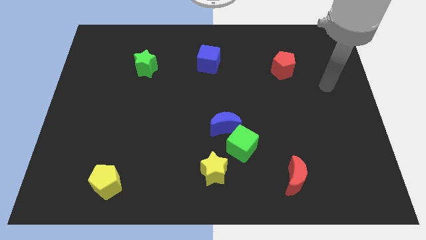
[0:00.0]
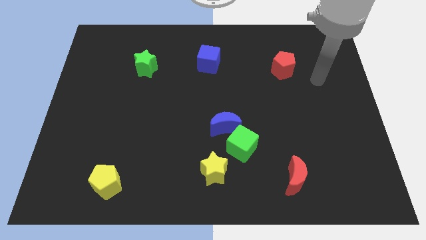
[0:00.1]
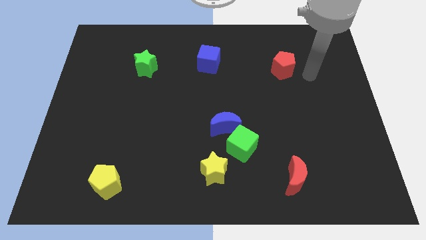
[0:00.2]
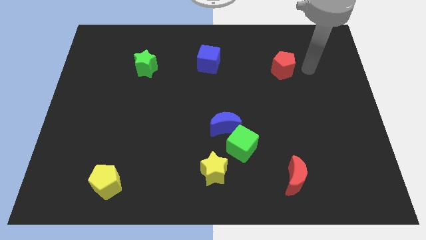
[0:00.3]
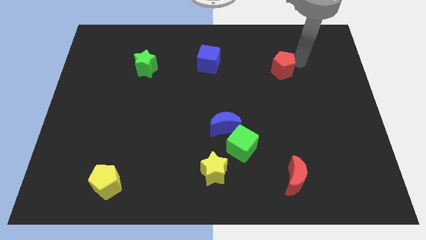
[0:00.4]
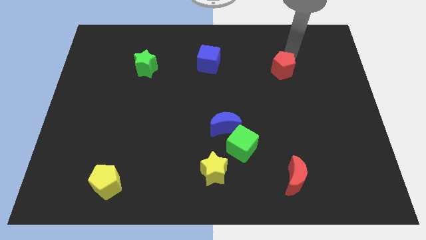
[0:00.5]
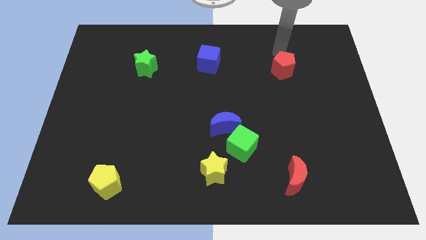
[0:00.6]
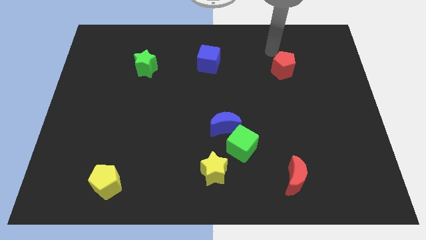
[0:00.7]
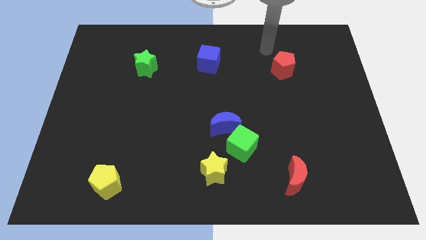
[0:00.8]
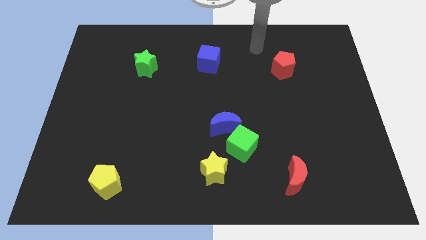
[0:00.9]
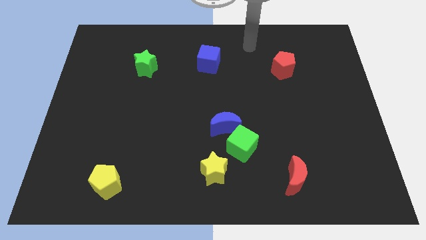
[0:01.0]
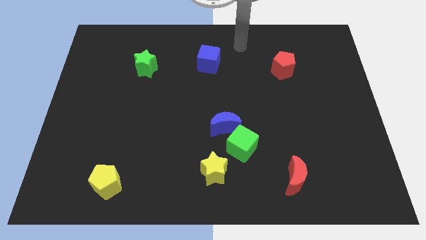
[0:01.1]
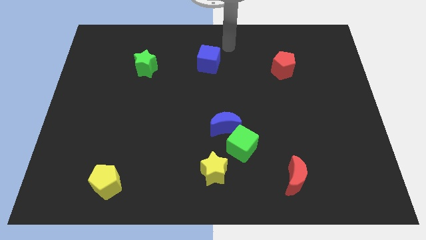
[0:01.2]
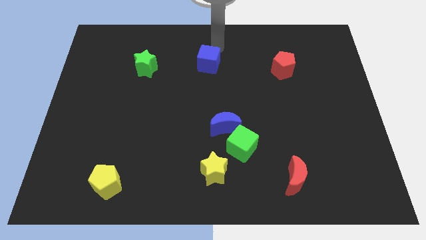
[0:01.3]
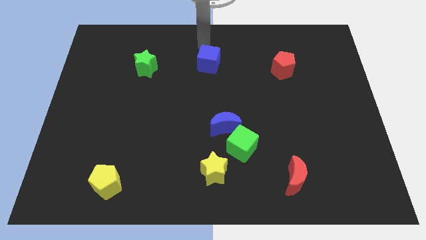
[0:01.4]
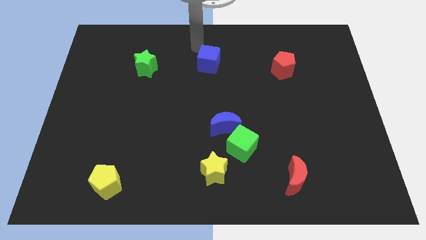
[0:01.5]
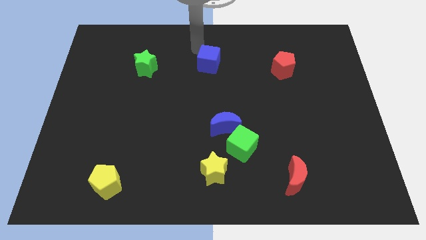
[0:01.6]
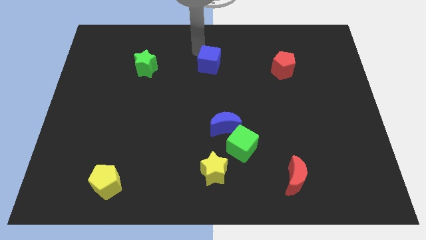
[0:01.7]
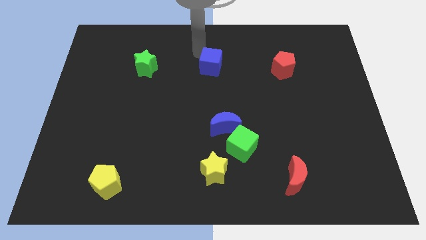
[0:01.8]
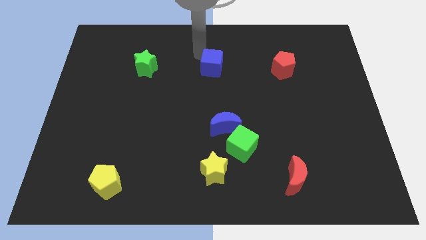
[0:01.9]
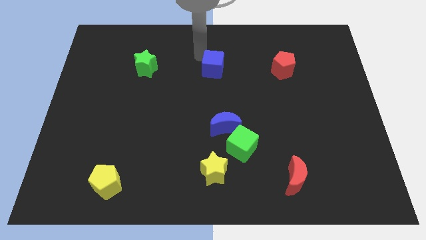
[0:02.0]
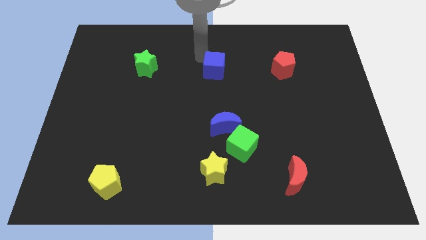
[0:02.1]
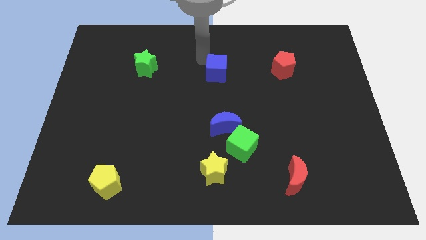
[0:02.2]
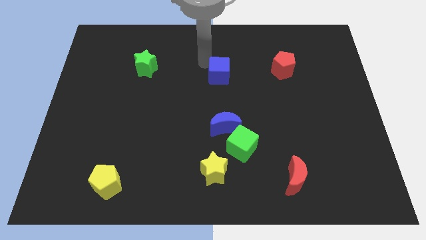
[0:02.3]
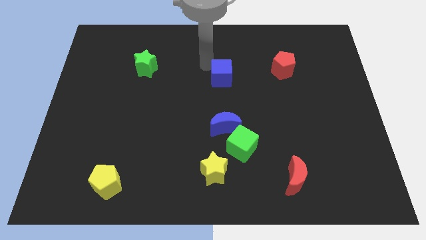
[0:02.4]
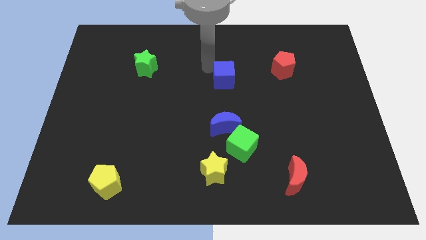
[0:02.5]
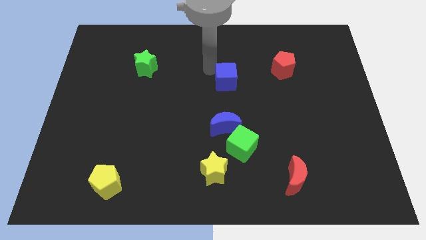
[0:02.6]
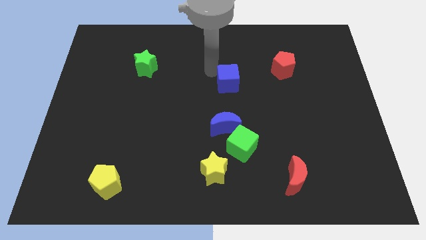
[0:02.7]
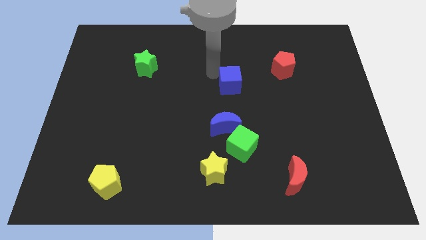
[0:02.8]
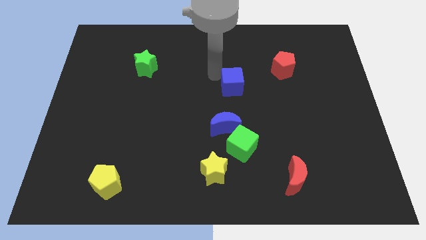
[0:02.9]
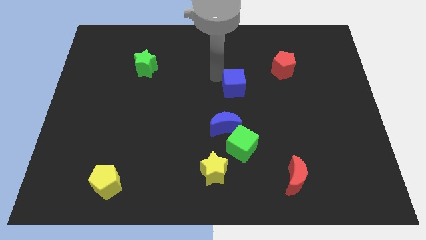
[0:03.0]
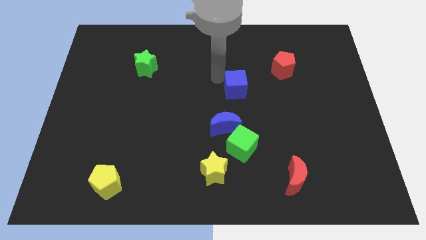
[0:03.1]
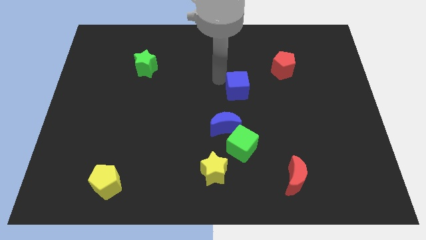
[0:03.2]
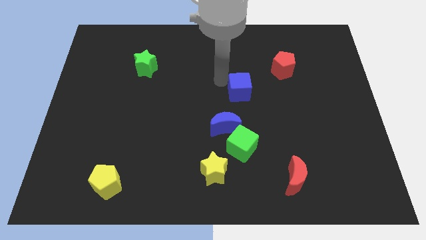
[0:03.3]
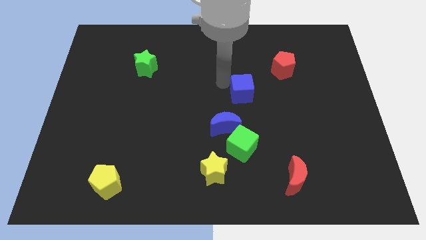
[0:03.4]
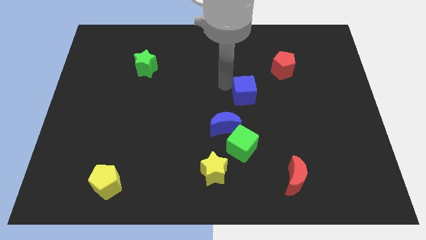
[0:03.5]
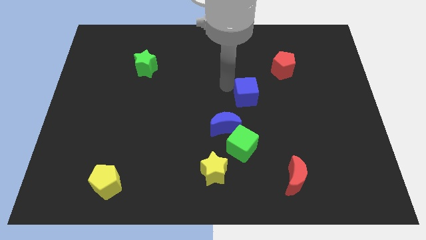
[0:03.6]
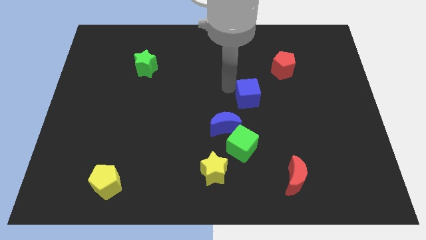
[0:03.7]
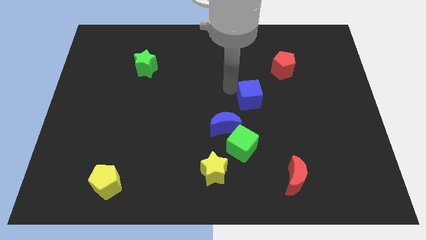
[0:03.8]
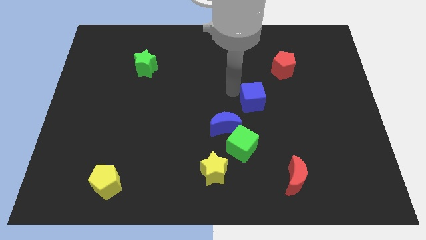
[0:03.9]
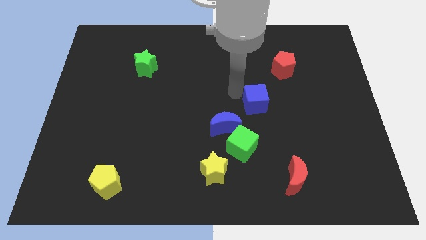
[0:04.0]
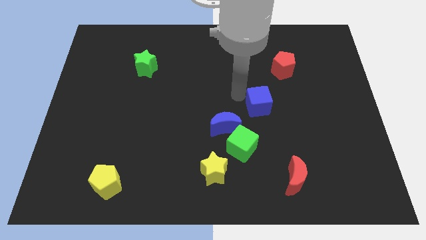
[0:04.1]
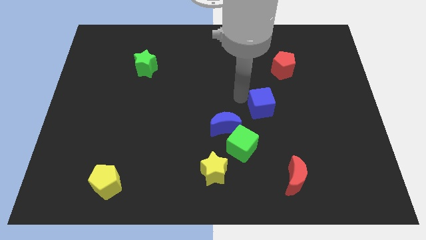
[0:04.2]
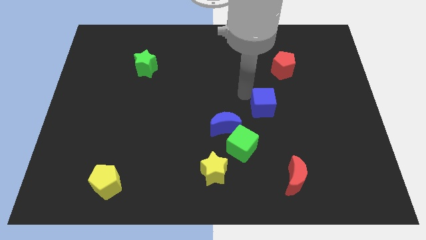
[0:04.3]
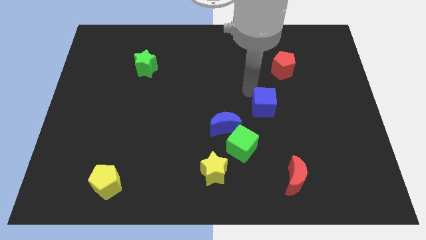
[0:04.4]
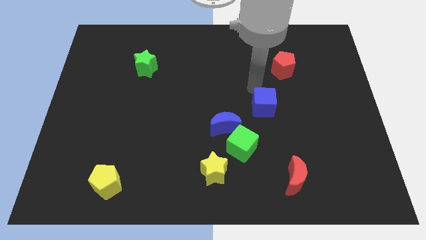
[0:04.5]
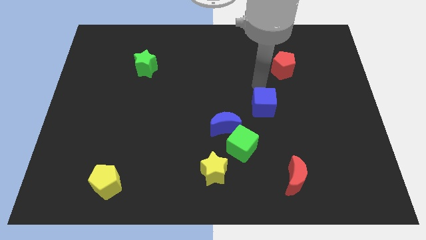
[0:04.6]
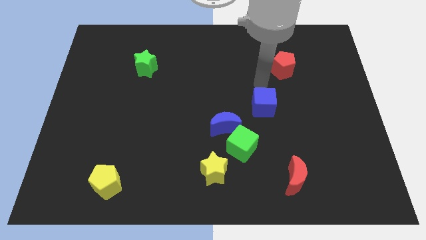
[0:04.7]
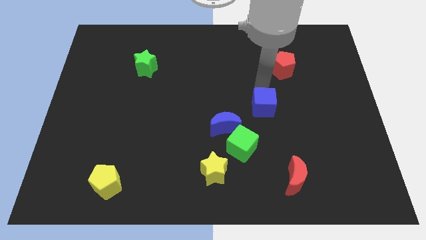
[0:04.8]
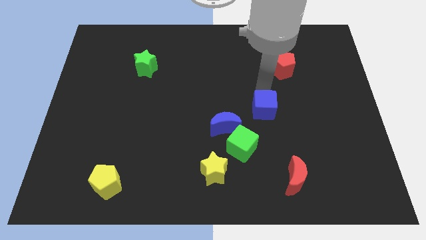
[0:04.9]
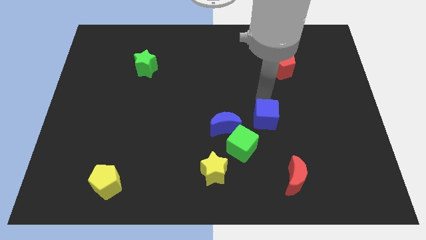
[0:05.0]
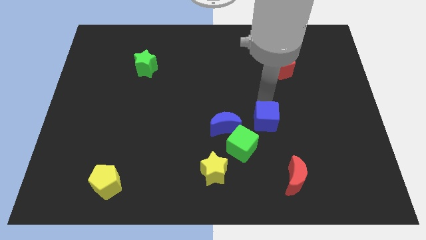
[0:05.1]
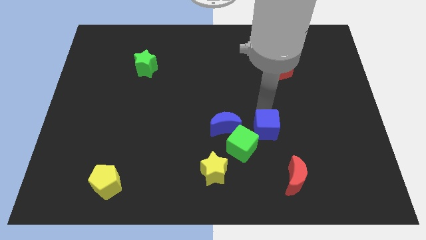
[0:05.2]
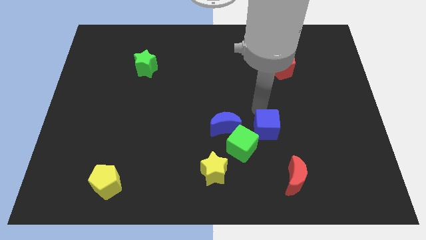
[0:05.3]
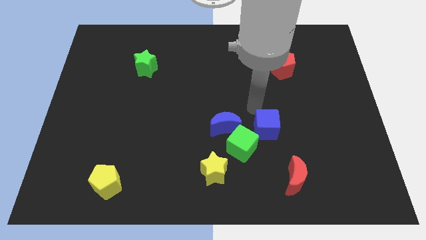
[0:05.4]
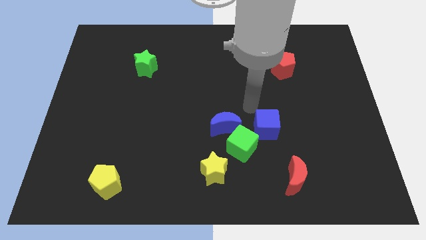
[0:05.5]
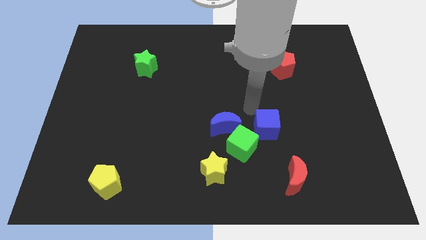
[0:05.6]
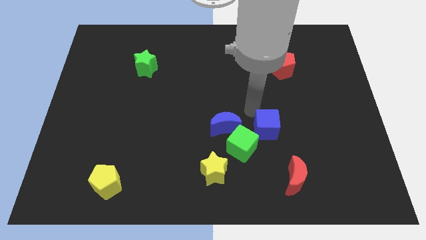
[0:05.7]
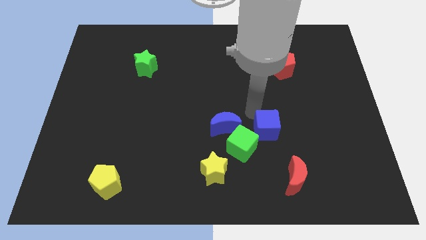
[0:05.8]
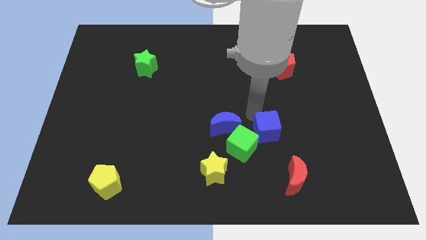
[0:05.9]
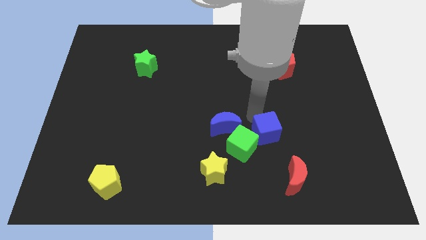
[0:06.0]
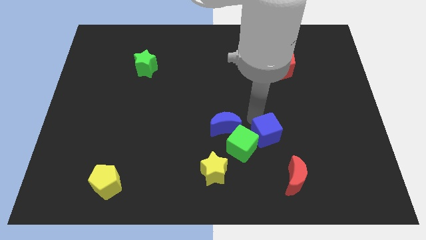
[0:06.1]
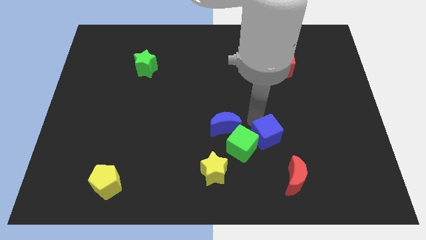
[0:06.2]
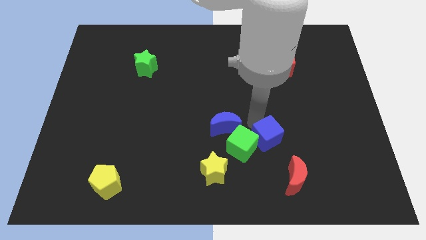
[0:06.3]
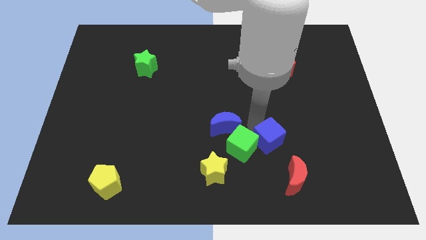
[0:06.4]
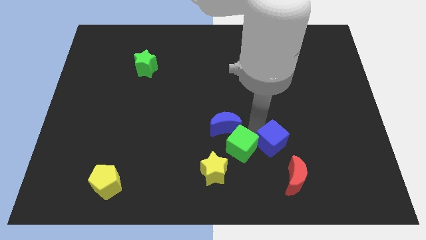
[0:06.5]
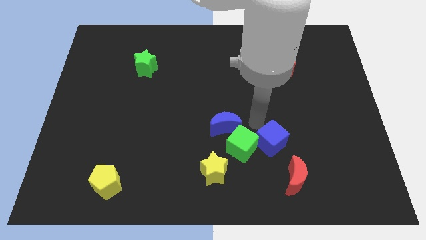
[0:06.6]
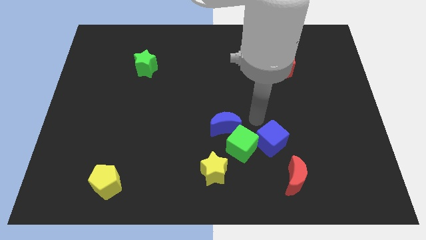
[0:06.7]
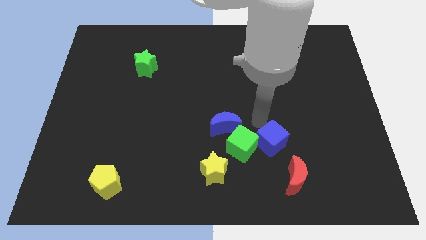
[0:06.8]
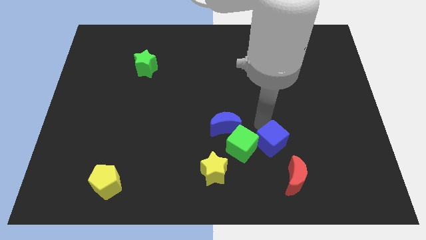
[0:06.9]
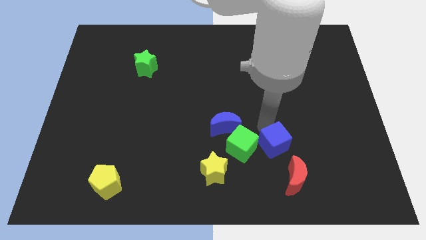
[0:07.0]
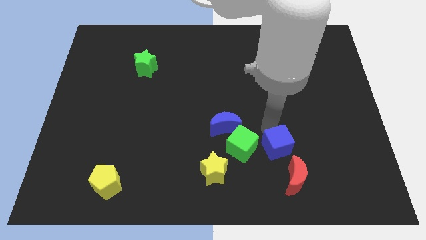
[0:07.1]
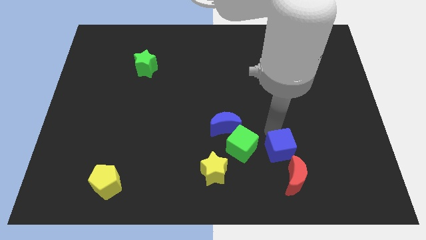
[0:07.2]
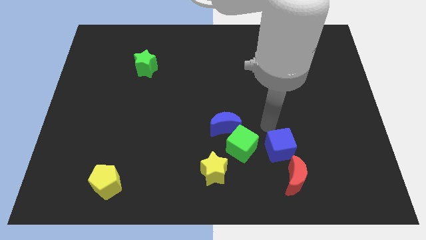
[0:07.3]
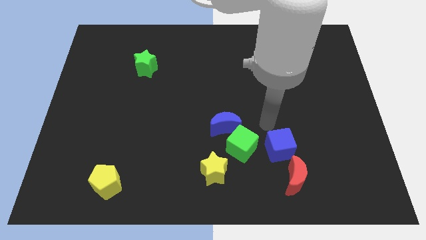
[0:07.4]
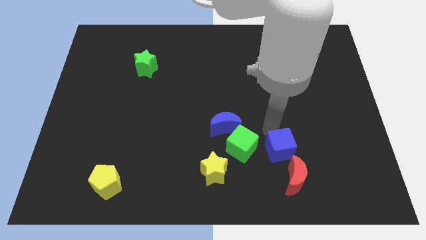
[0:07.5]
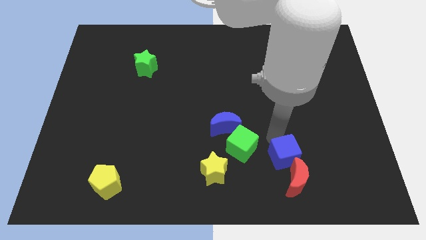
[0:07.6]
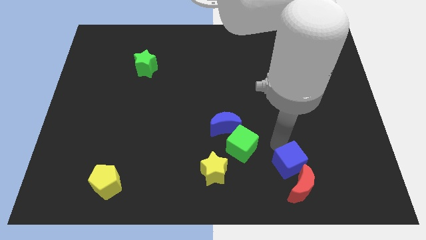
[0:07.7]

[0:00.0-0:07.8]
slide the blue cube to the red moon
